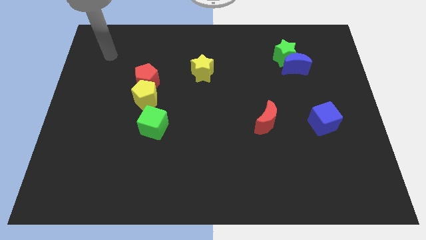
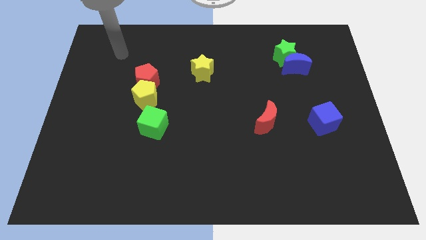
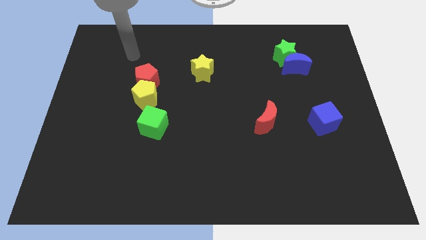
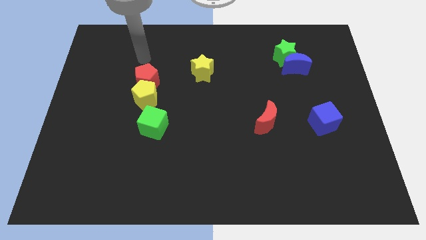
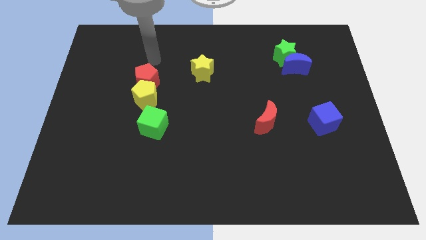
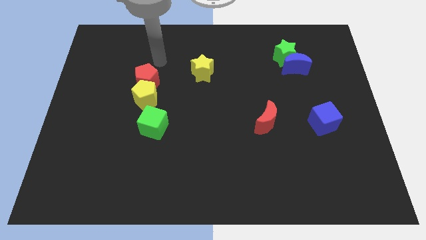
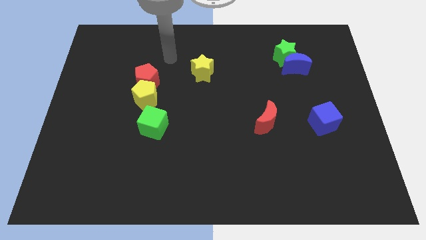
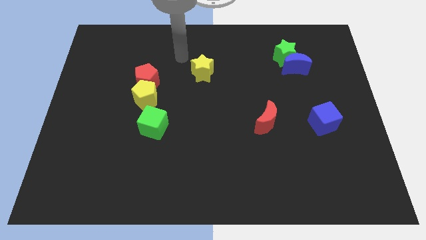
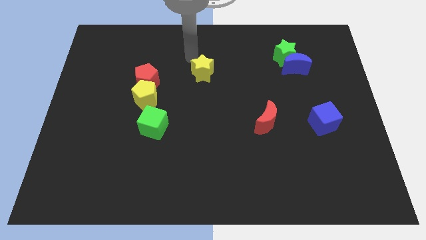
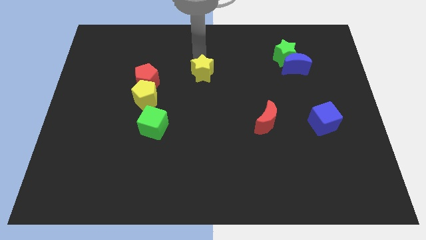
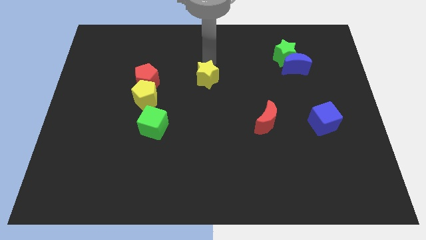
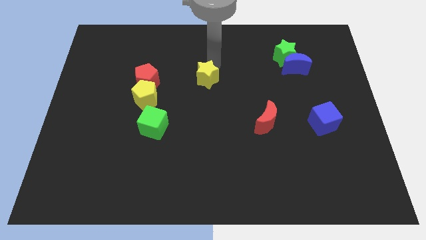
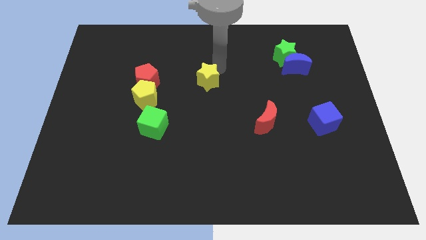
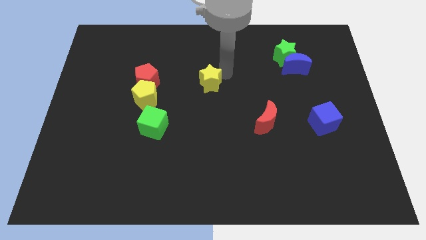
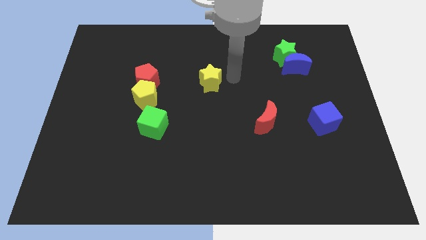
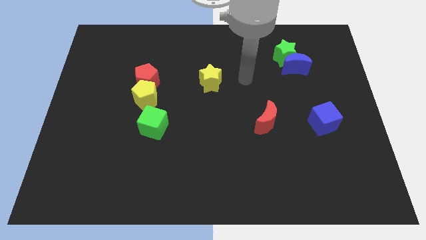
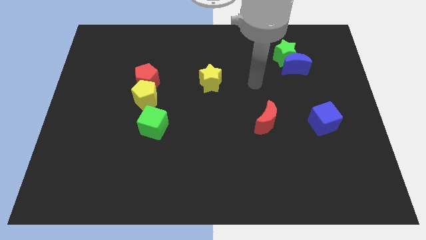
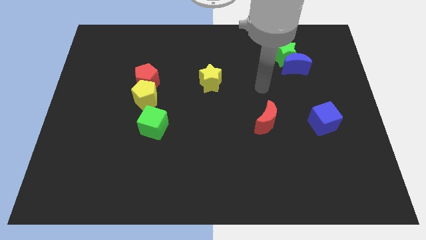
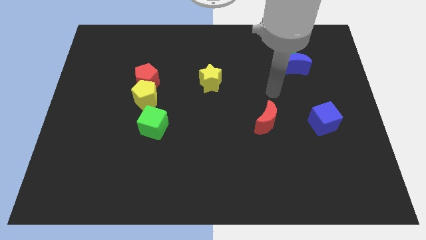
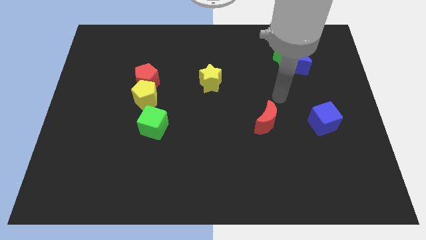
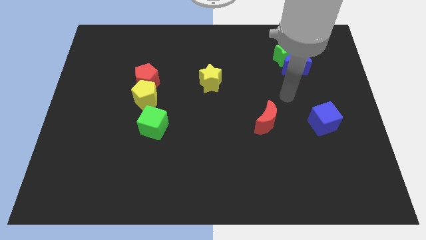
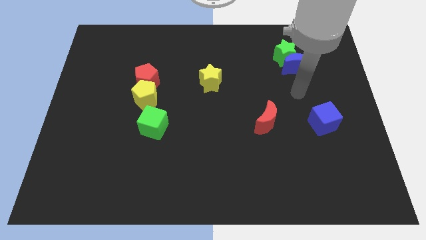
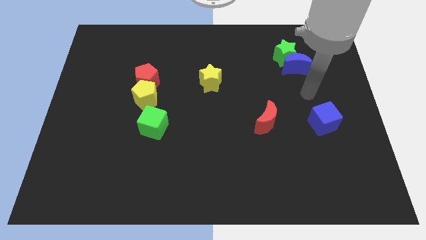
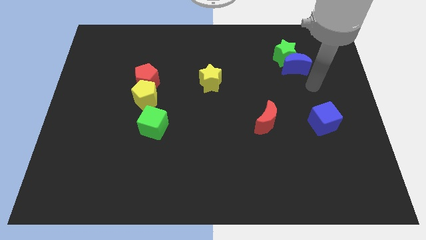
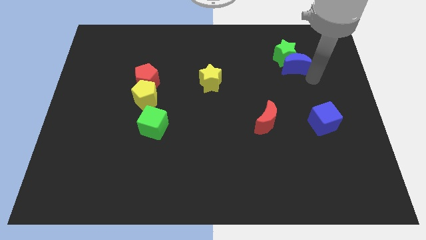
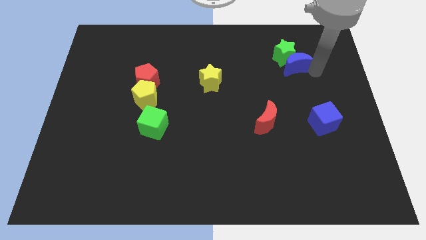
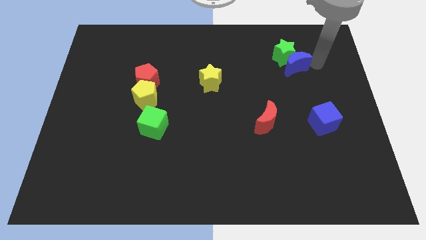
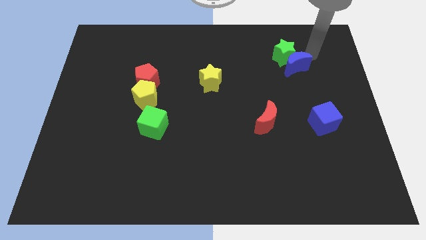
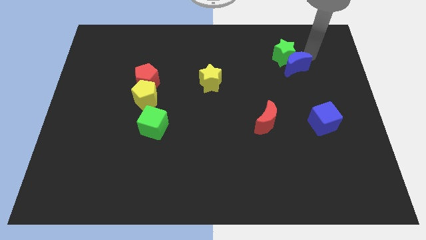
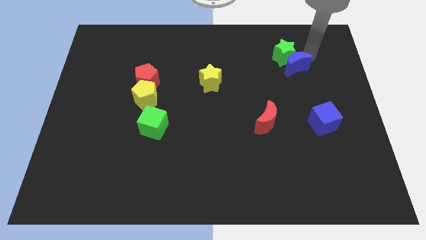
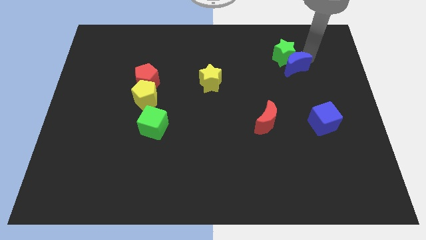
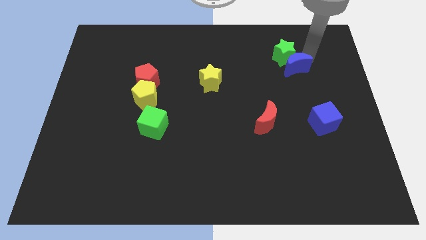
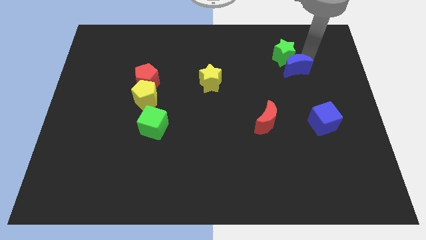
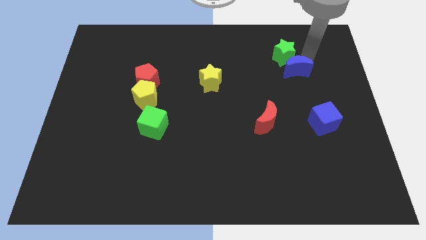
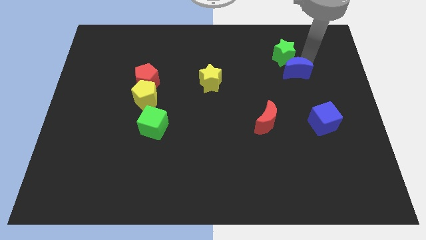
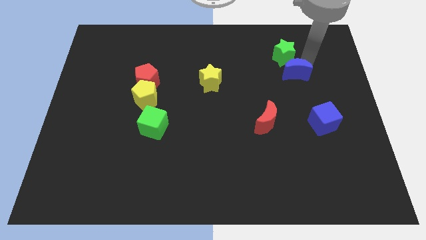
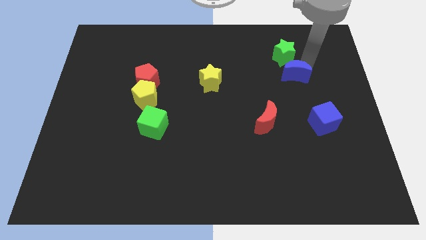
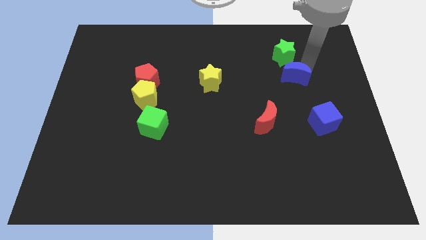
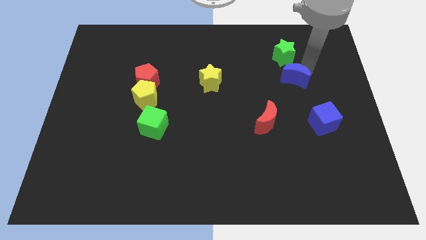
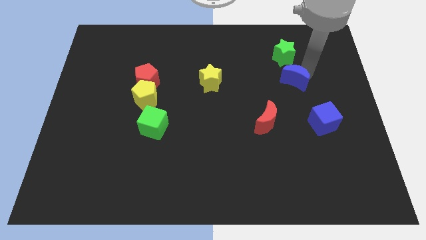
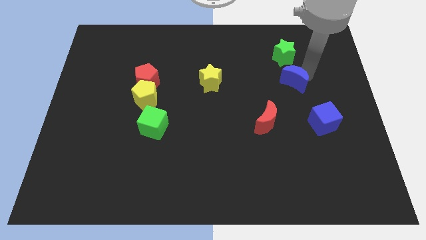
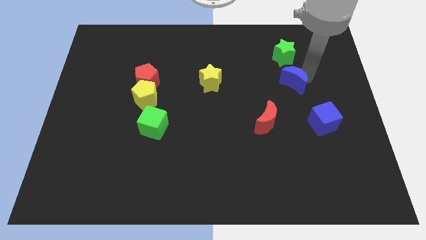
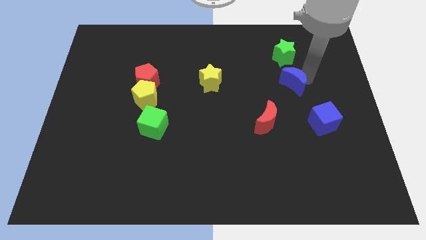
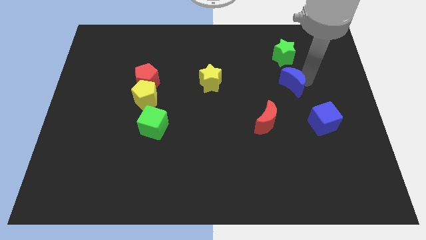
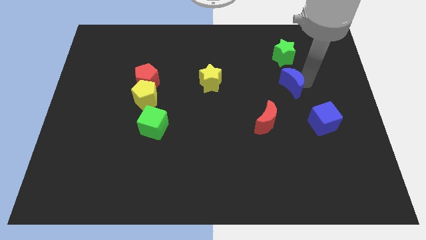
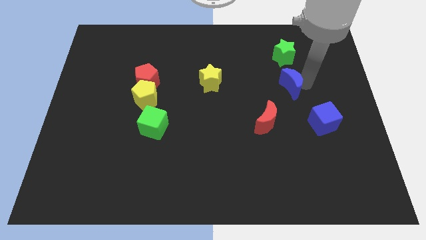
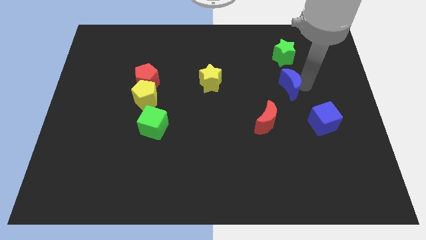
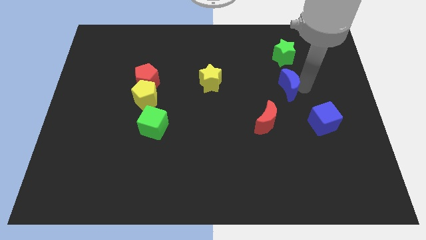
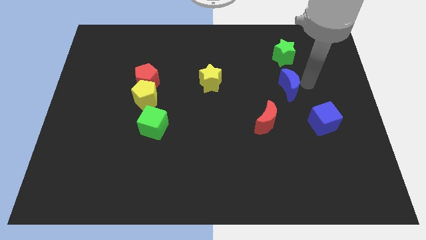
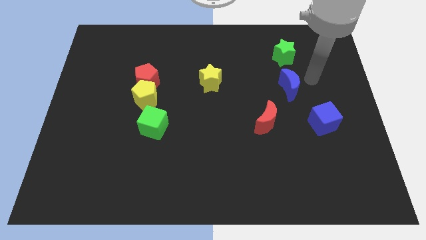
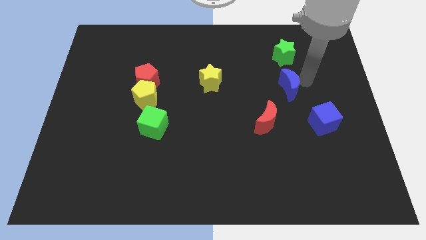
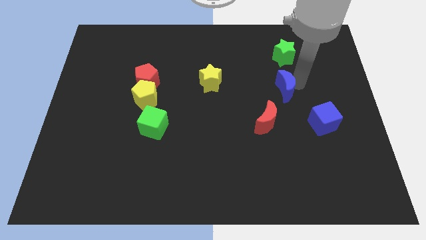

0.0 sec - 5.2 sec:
slightly push the blue moon diagonally down and to the left

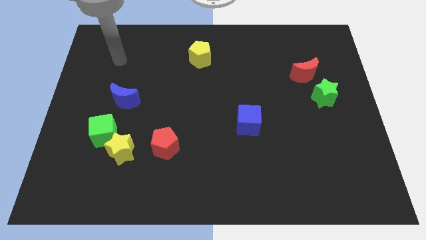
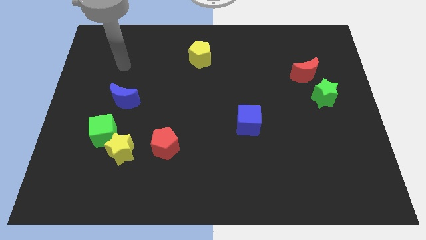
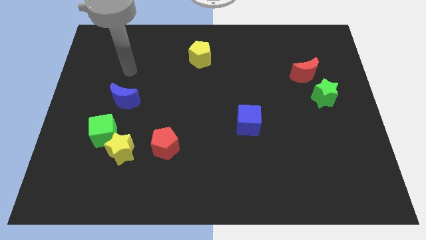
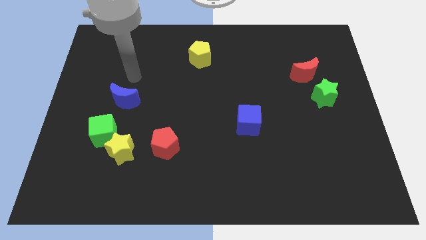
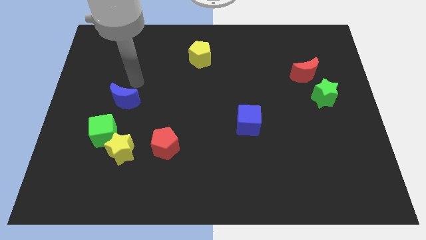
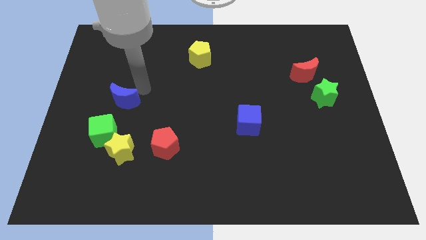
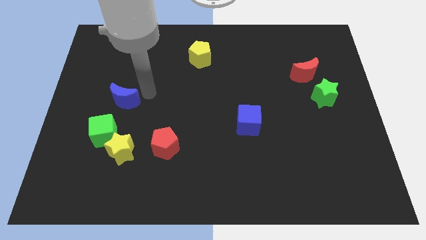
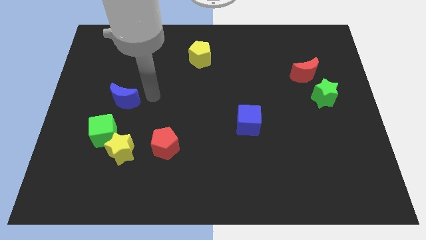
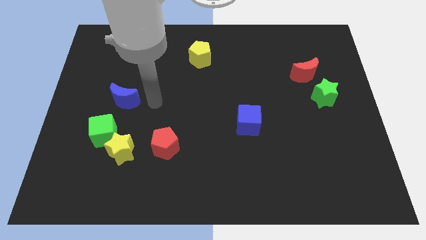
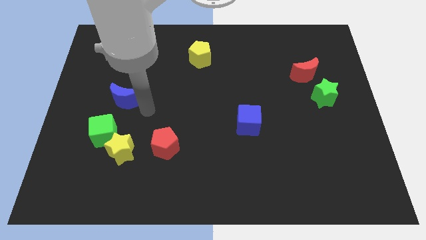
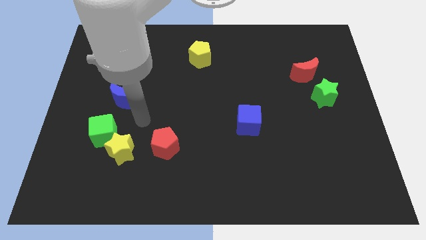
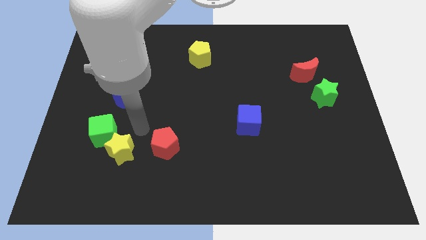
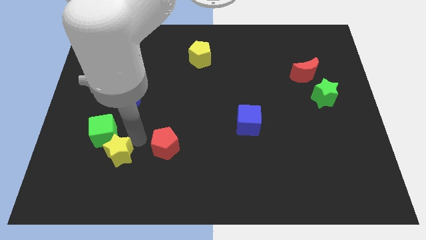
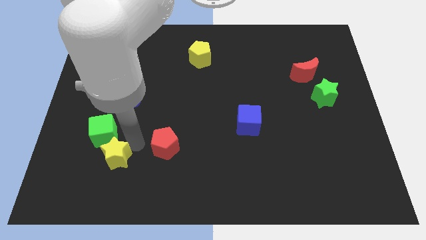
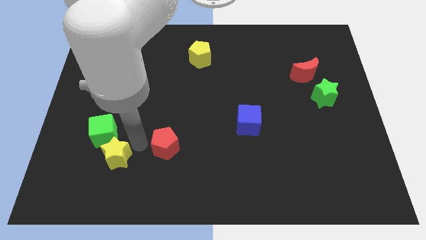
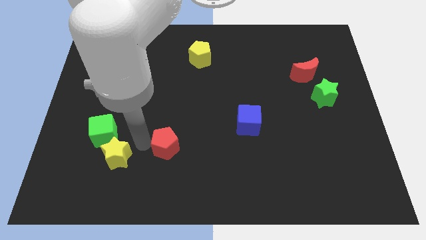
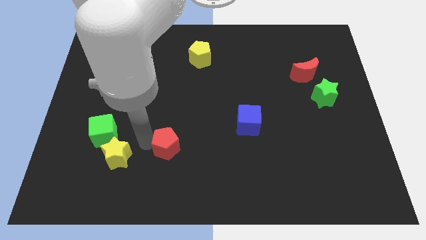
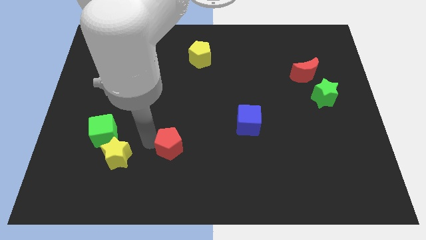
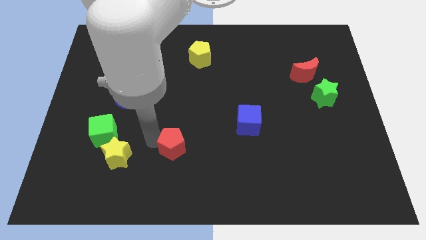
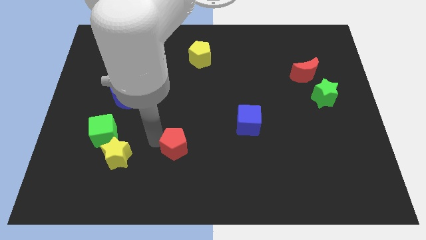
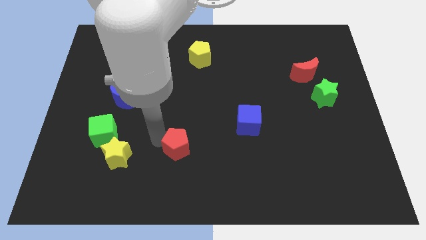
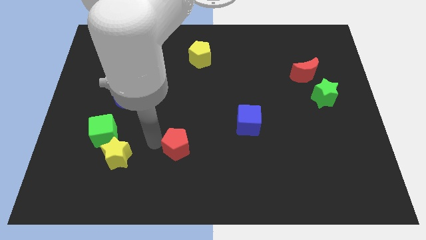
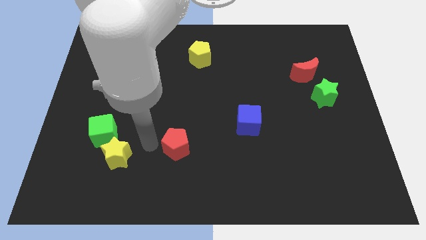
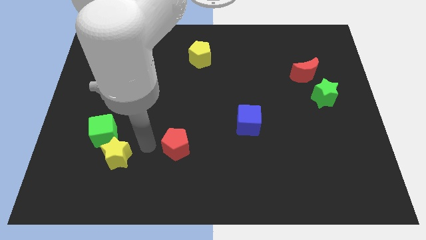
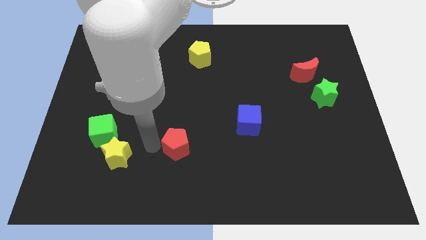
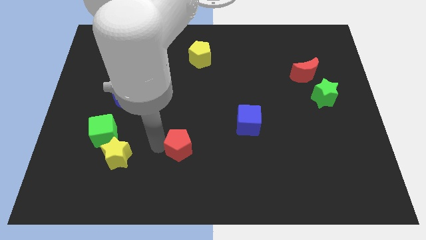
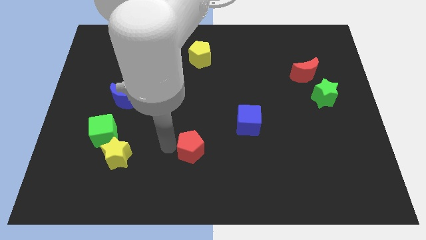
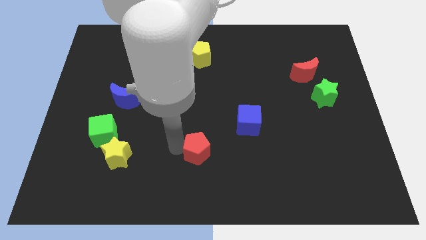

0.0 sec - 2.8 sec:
slightly push the red pentagon to the right
